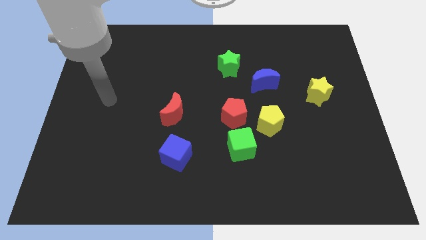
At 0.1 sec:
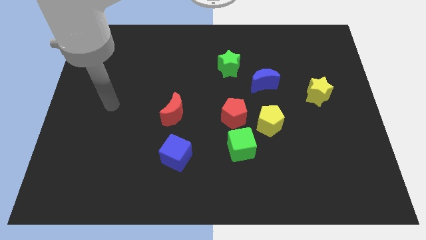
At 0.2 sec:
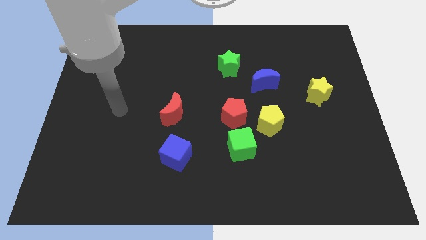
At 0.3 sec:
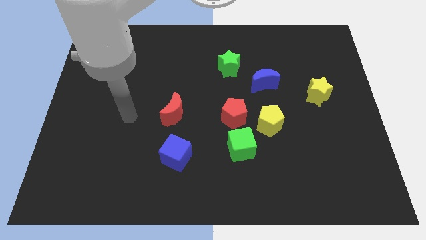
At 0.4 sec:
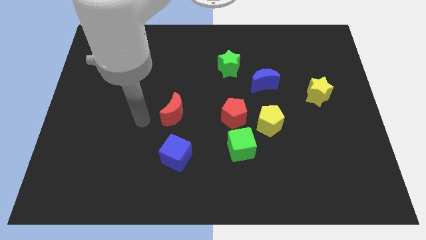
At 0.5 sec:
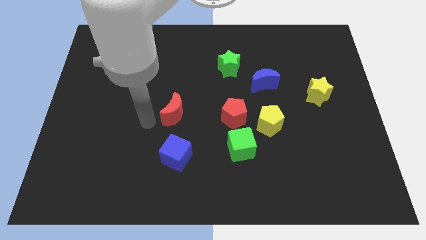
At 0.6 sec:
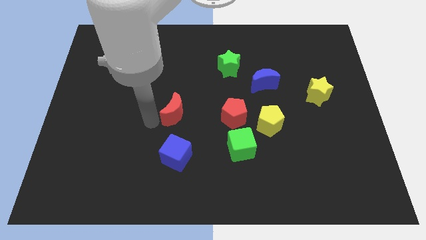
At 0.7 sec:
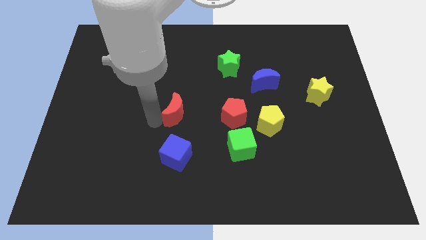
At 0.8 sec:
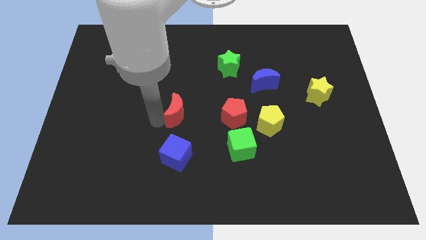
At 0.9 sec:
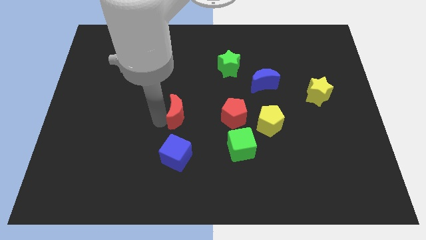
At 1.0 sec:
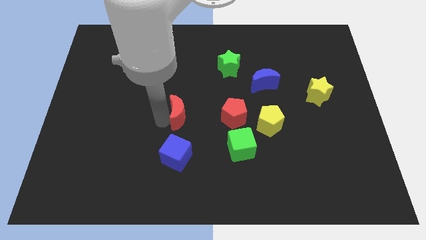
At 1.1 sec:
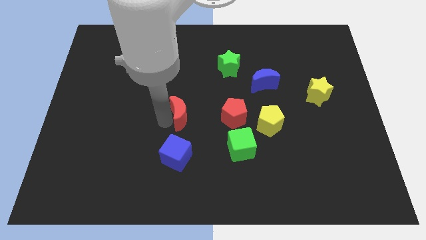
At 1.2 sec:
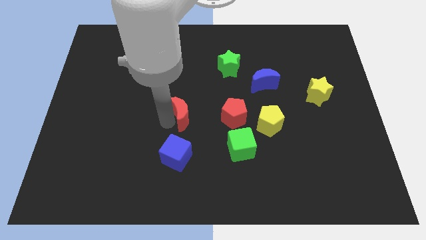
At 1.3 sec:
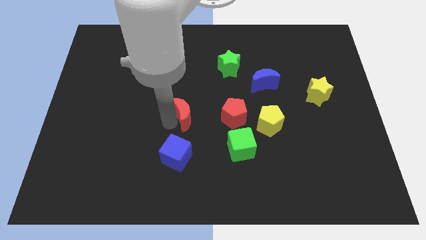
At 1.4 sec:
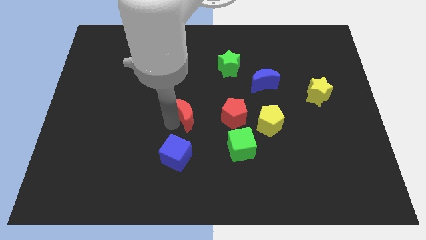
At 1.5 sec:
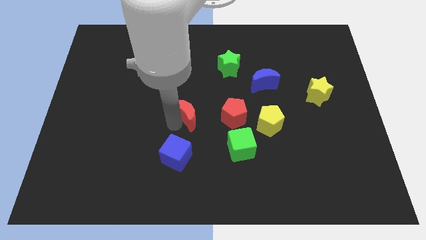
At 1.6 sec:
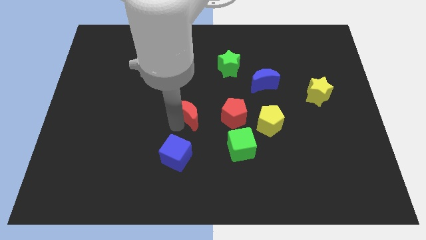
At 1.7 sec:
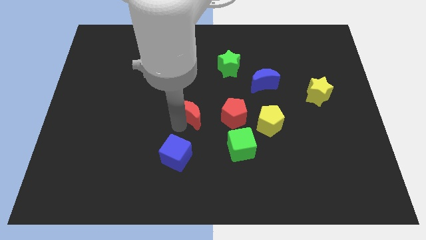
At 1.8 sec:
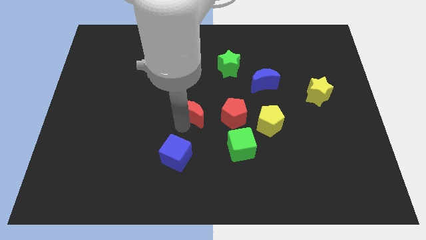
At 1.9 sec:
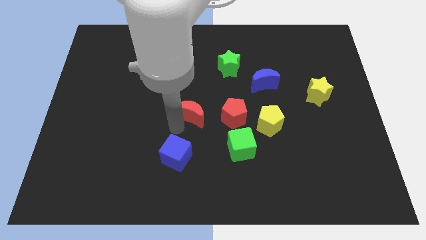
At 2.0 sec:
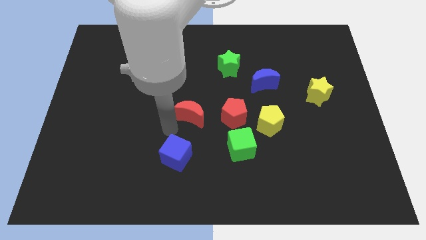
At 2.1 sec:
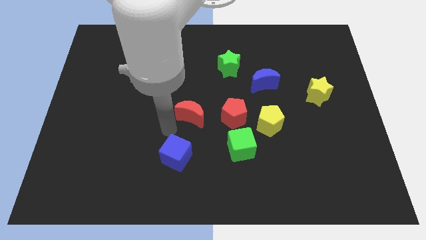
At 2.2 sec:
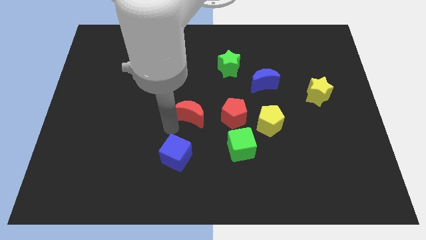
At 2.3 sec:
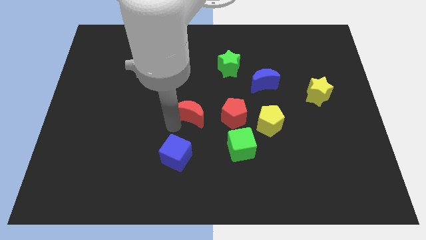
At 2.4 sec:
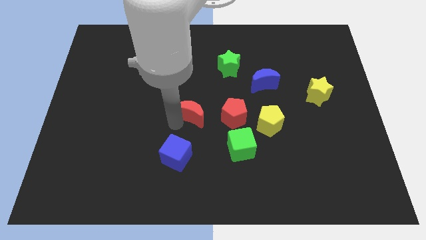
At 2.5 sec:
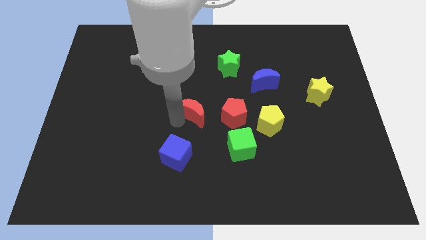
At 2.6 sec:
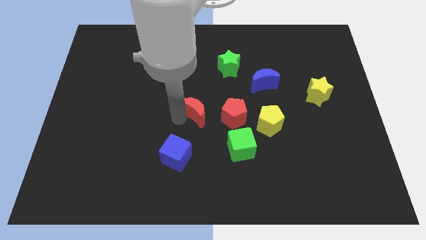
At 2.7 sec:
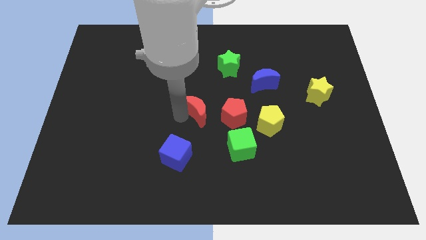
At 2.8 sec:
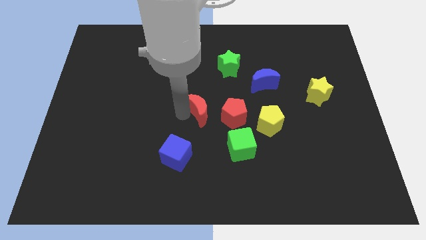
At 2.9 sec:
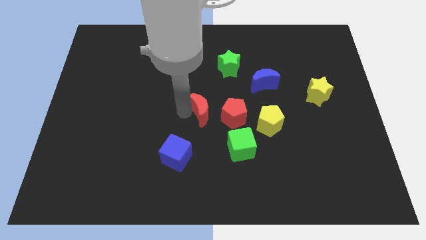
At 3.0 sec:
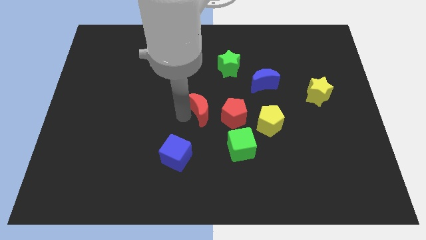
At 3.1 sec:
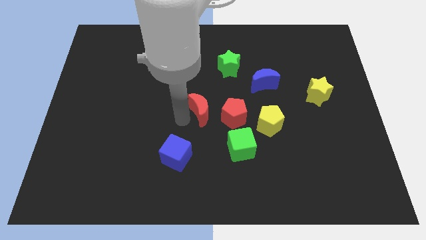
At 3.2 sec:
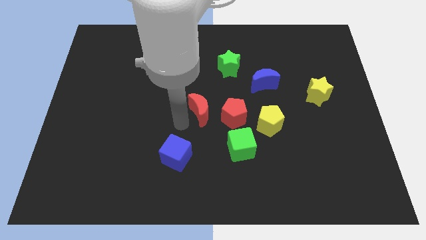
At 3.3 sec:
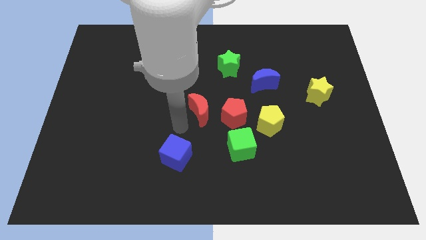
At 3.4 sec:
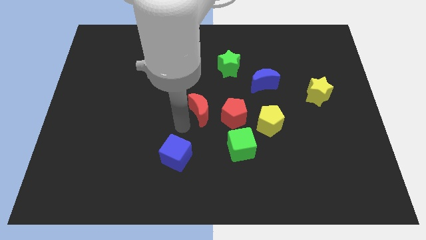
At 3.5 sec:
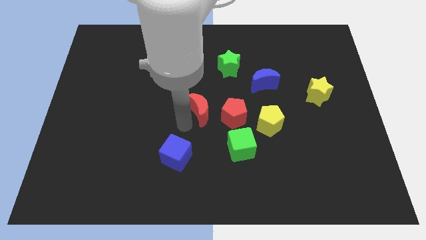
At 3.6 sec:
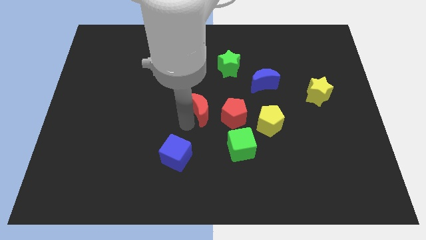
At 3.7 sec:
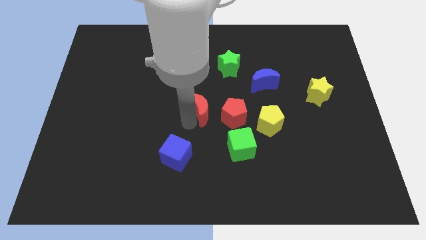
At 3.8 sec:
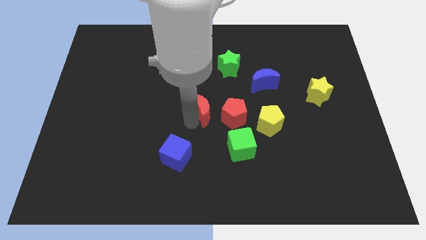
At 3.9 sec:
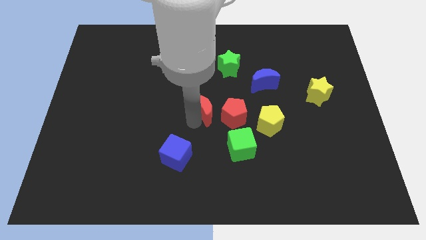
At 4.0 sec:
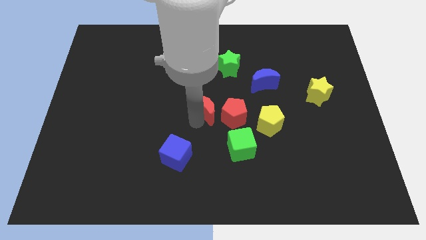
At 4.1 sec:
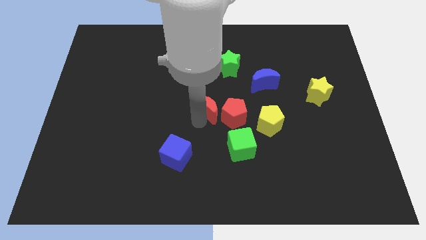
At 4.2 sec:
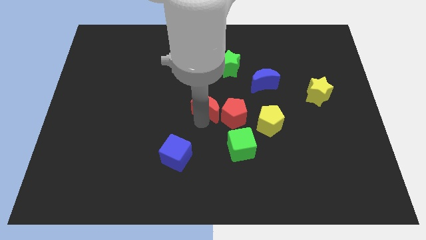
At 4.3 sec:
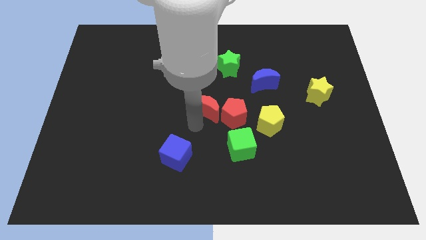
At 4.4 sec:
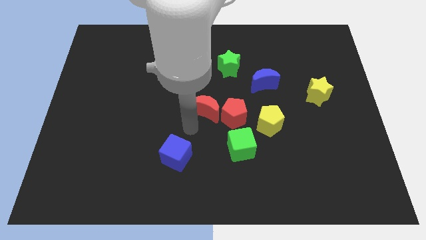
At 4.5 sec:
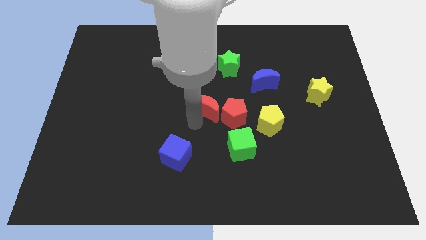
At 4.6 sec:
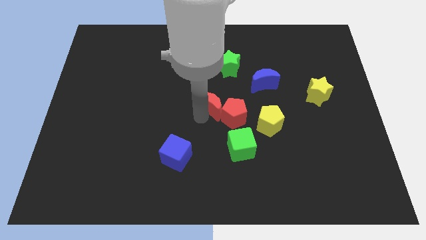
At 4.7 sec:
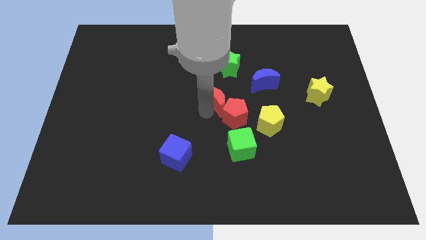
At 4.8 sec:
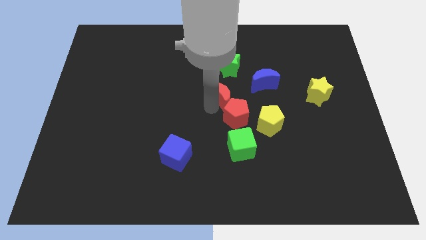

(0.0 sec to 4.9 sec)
move the red moon to the top side of the green cube

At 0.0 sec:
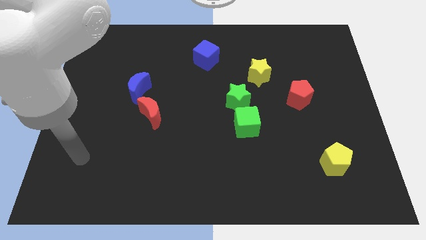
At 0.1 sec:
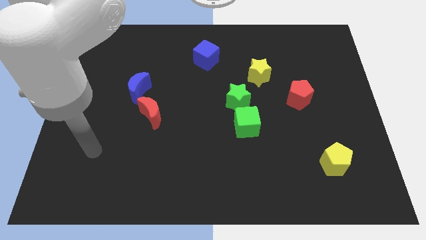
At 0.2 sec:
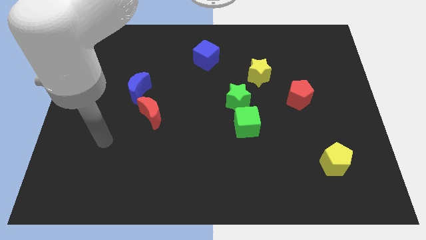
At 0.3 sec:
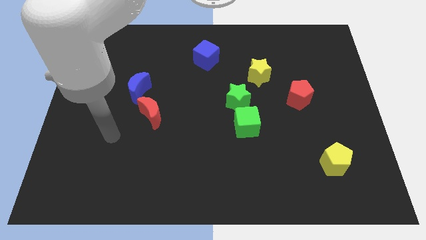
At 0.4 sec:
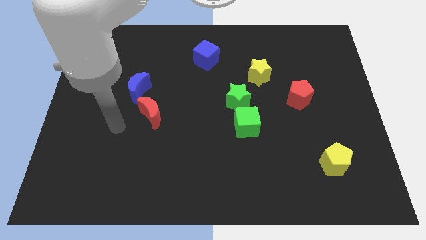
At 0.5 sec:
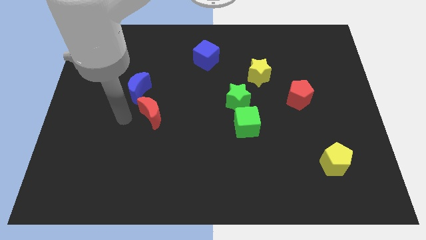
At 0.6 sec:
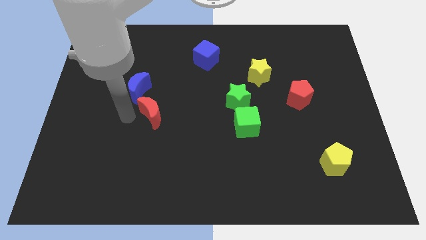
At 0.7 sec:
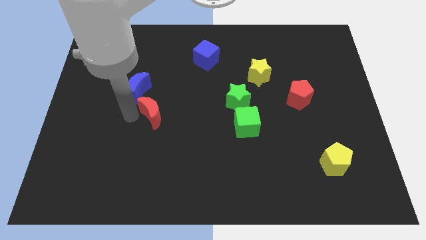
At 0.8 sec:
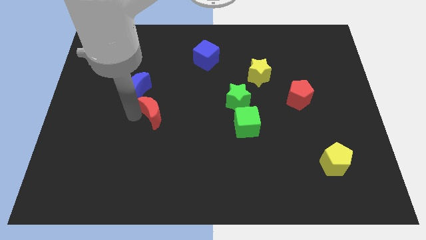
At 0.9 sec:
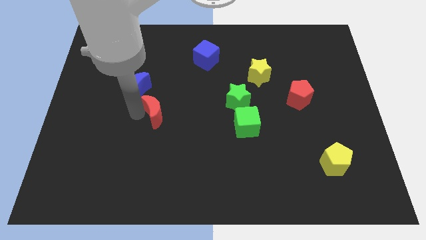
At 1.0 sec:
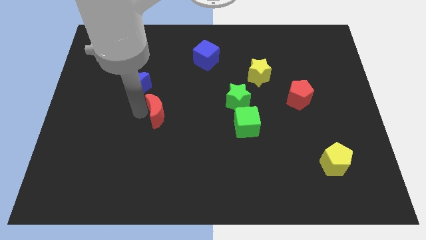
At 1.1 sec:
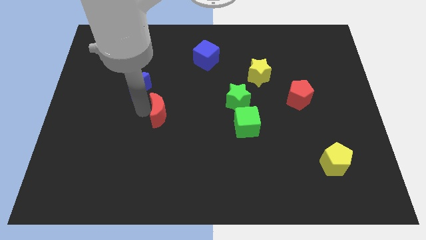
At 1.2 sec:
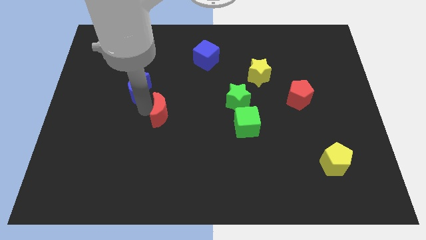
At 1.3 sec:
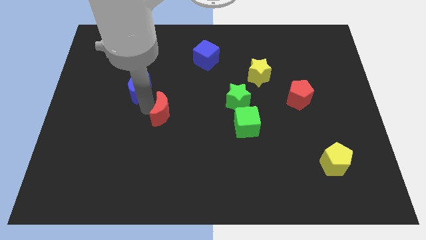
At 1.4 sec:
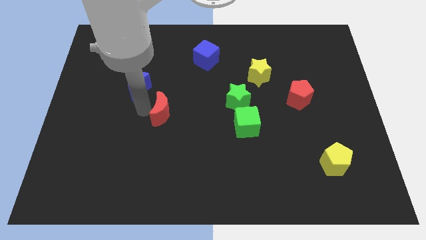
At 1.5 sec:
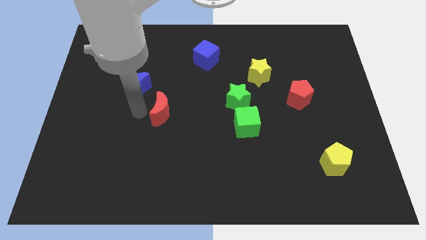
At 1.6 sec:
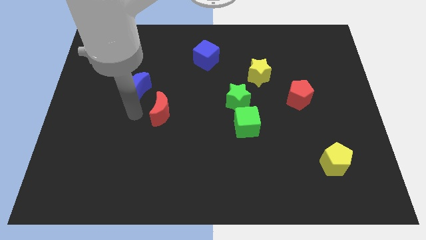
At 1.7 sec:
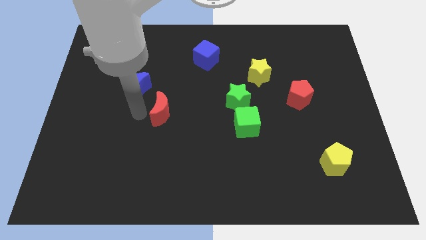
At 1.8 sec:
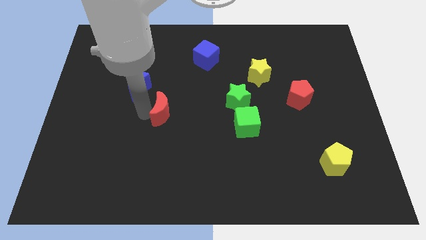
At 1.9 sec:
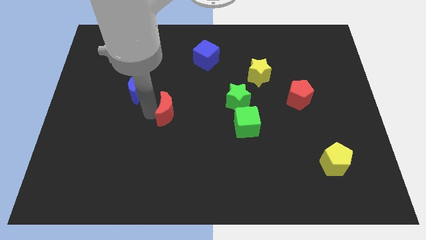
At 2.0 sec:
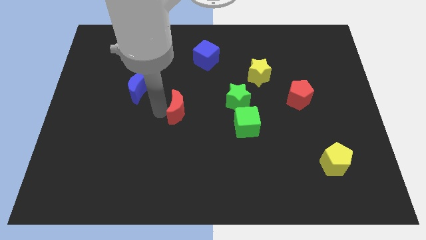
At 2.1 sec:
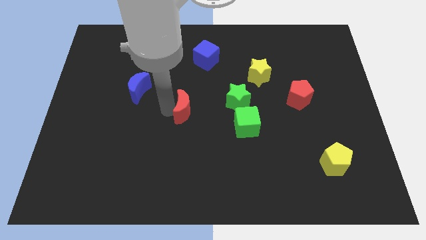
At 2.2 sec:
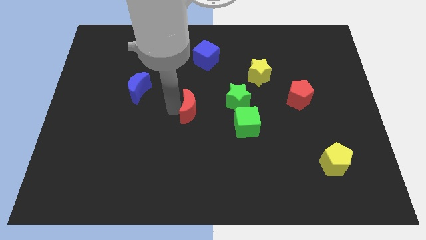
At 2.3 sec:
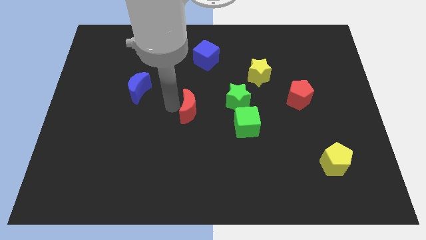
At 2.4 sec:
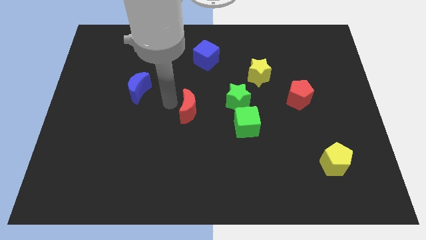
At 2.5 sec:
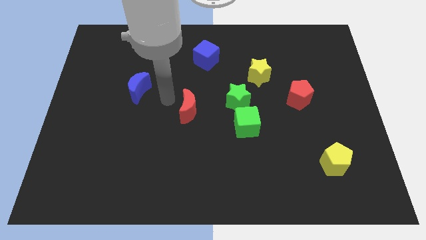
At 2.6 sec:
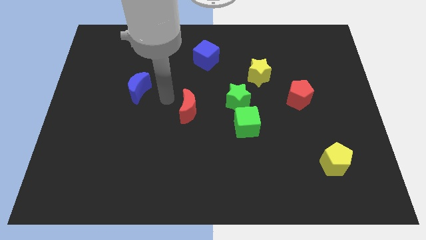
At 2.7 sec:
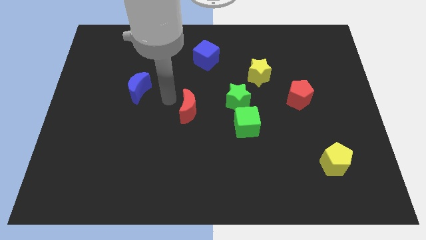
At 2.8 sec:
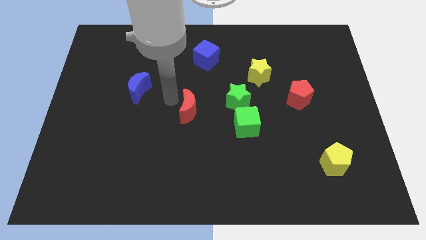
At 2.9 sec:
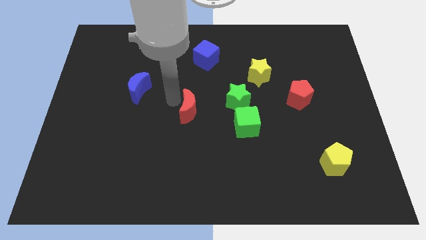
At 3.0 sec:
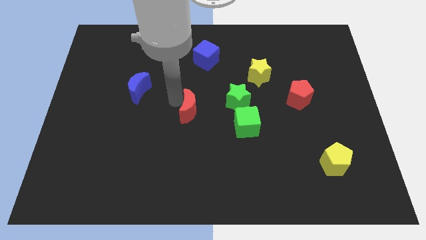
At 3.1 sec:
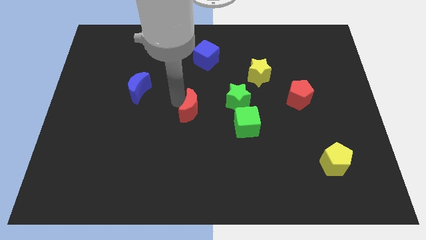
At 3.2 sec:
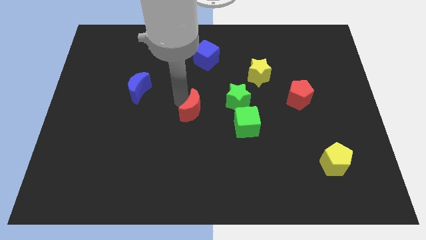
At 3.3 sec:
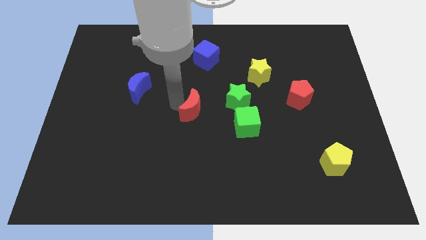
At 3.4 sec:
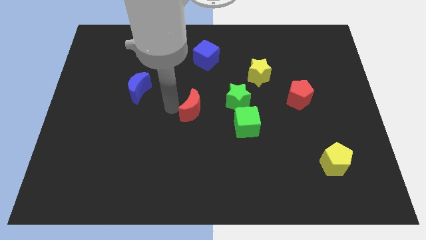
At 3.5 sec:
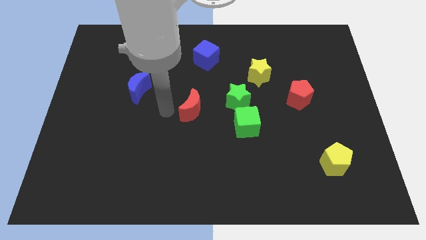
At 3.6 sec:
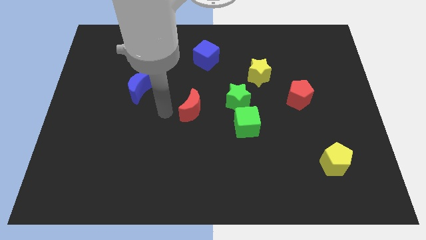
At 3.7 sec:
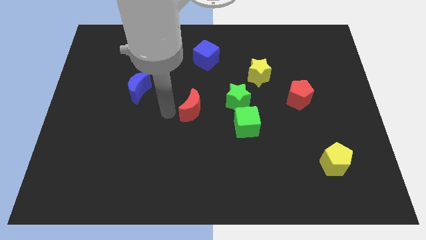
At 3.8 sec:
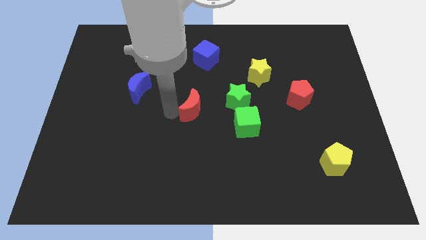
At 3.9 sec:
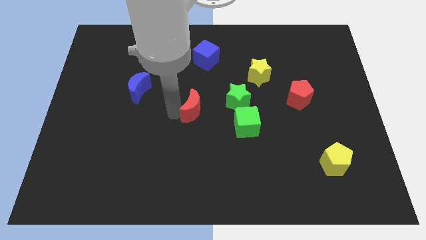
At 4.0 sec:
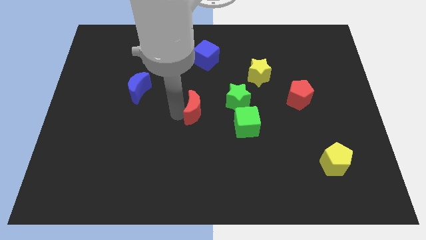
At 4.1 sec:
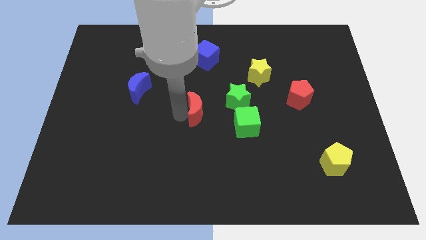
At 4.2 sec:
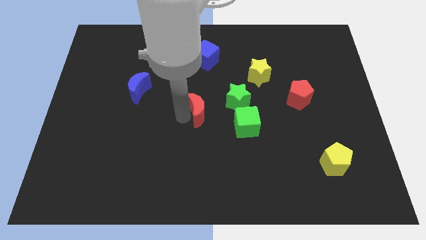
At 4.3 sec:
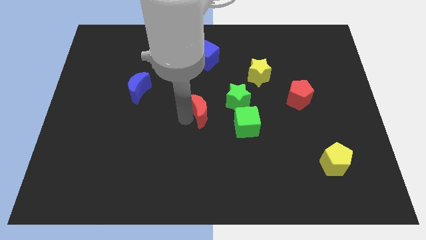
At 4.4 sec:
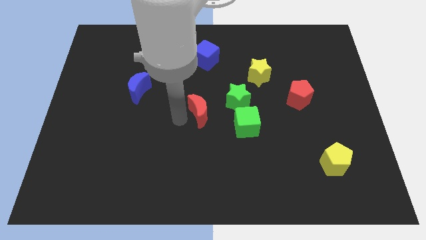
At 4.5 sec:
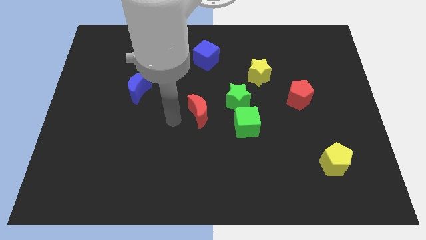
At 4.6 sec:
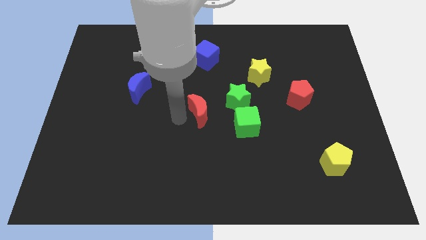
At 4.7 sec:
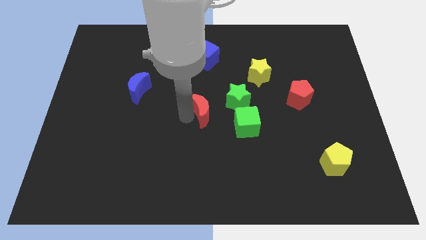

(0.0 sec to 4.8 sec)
push the red moon to the top left of the green cube
